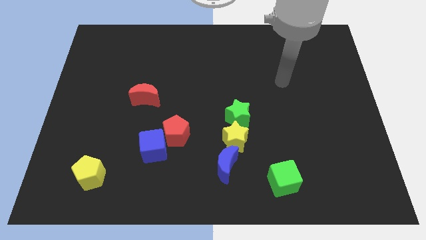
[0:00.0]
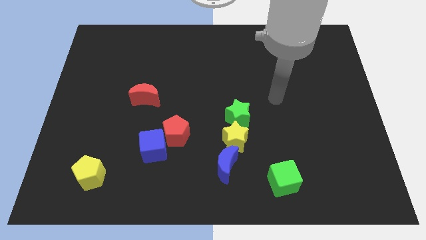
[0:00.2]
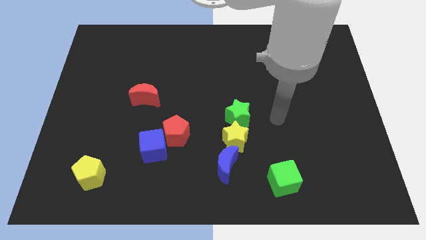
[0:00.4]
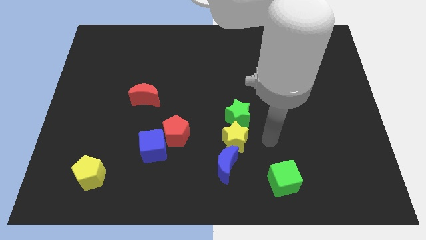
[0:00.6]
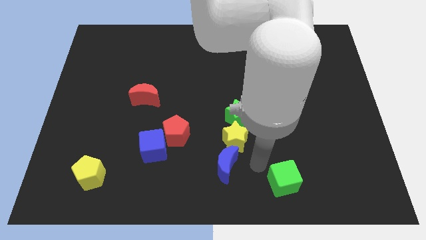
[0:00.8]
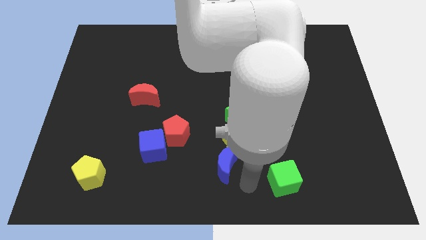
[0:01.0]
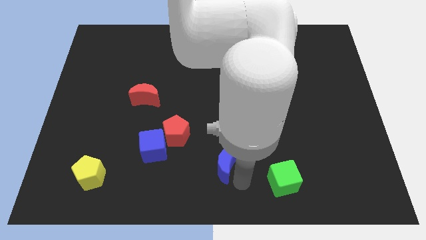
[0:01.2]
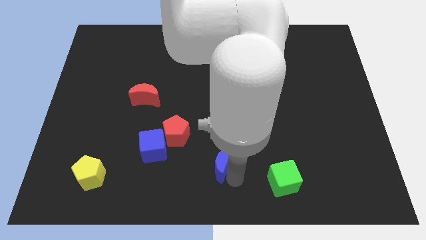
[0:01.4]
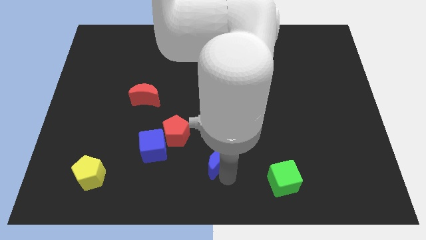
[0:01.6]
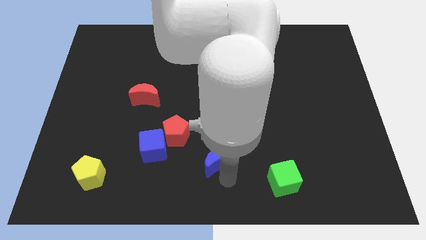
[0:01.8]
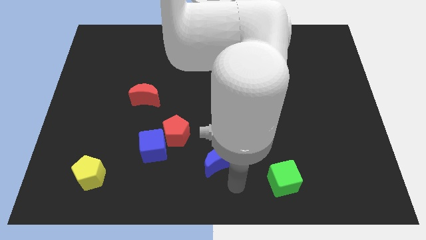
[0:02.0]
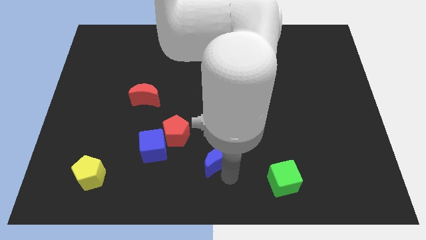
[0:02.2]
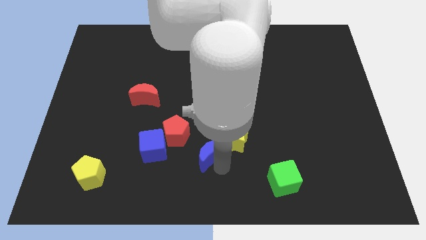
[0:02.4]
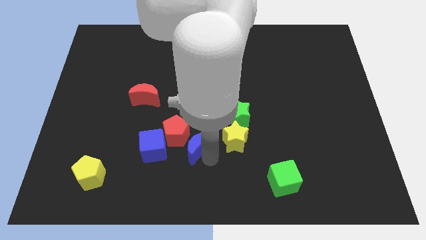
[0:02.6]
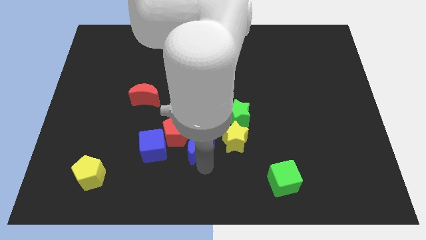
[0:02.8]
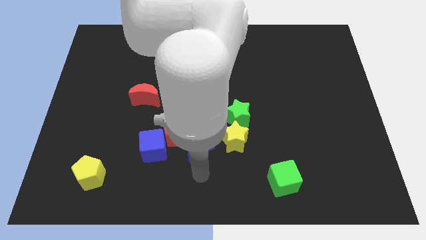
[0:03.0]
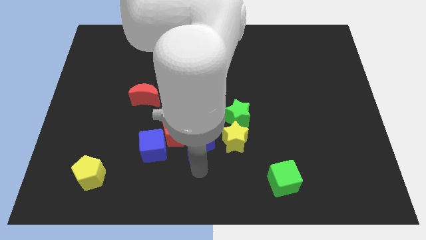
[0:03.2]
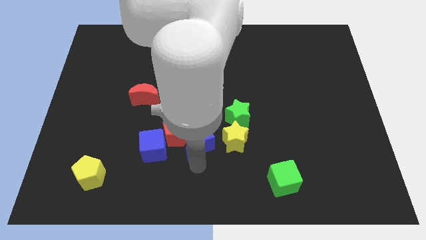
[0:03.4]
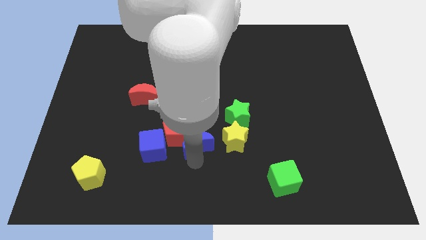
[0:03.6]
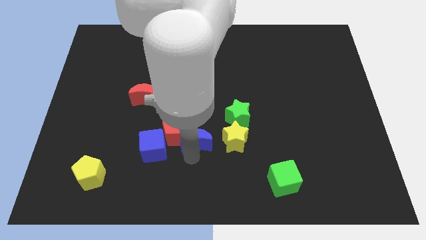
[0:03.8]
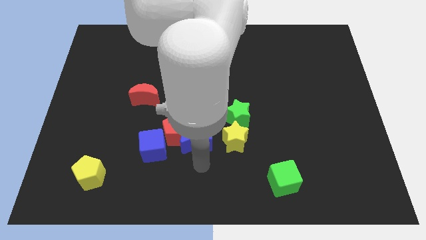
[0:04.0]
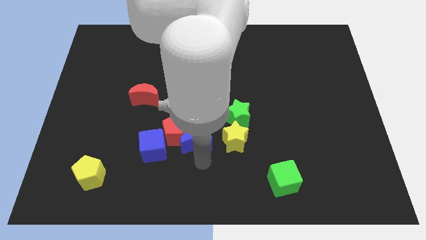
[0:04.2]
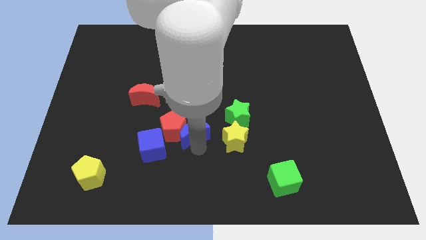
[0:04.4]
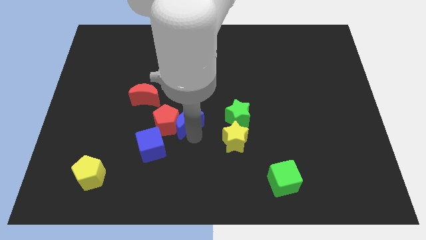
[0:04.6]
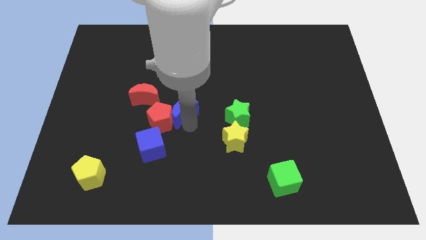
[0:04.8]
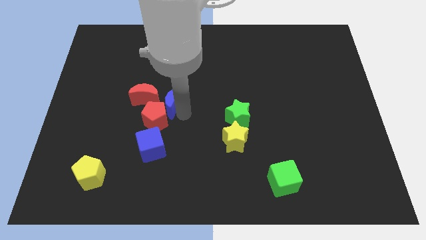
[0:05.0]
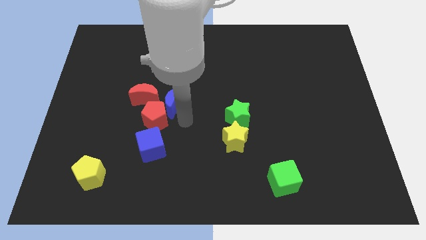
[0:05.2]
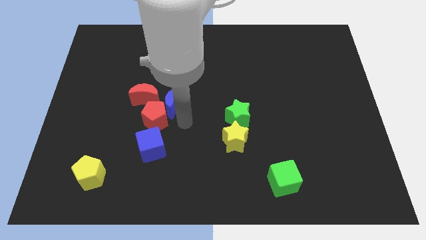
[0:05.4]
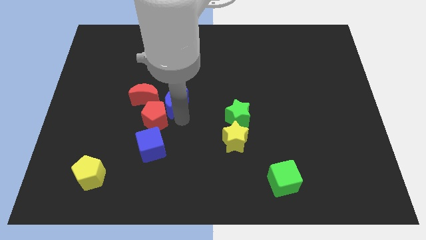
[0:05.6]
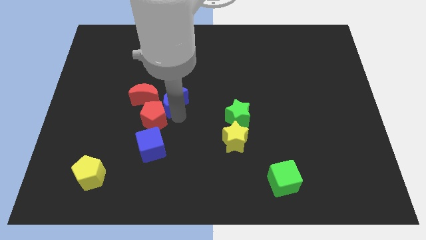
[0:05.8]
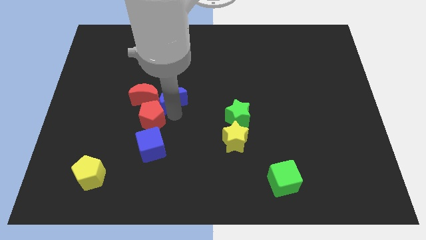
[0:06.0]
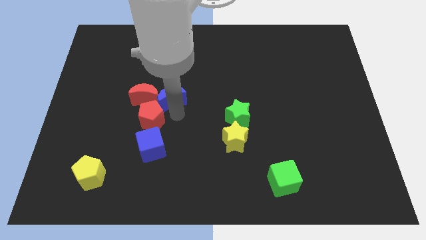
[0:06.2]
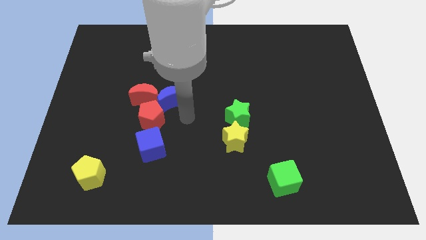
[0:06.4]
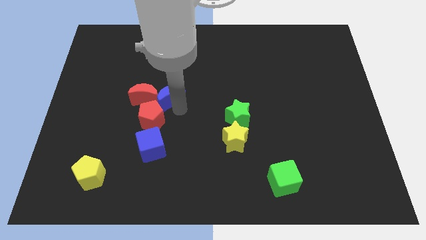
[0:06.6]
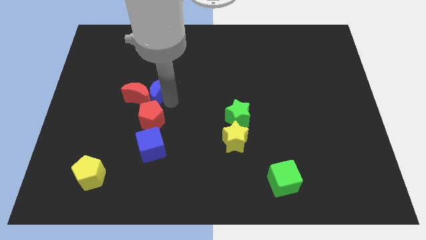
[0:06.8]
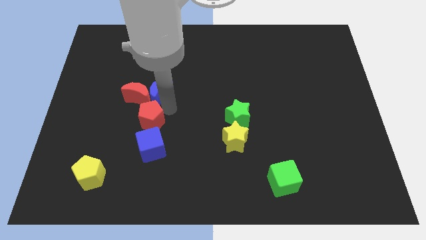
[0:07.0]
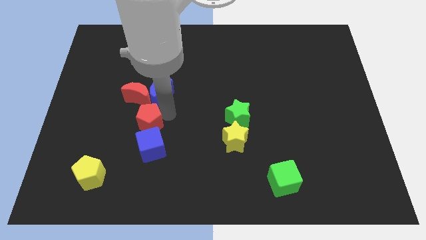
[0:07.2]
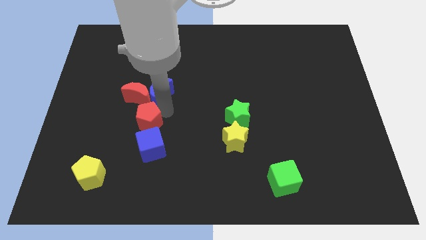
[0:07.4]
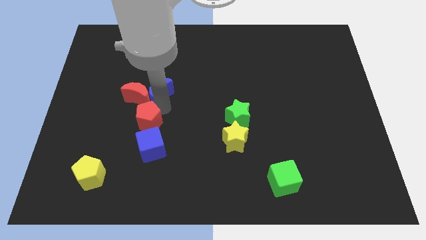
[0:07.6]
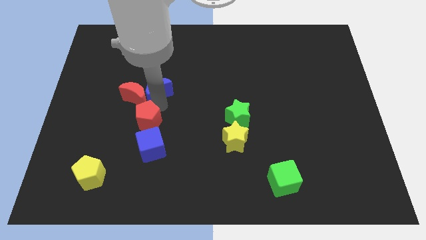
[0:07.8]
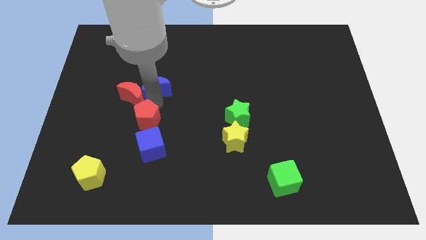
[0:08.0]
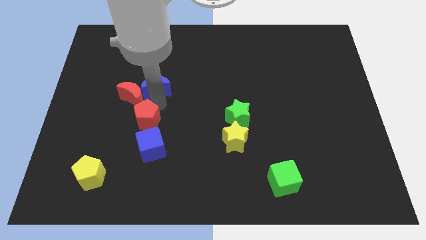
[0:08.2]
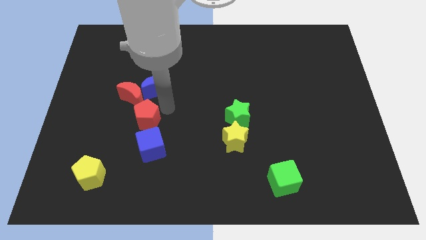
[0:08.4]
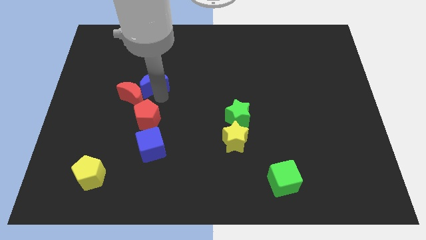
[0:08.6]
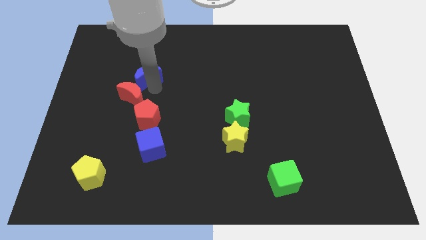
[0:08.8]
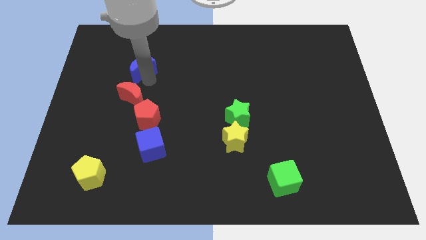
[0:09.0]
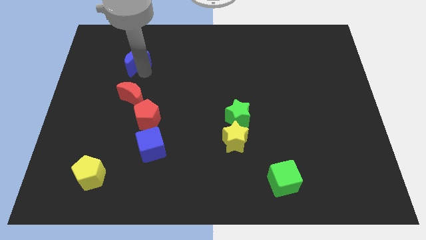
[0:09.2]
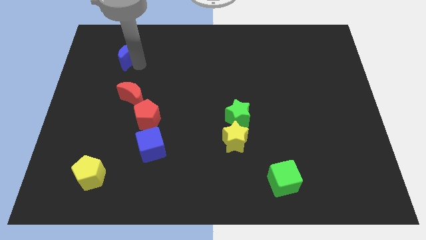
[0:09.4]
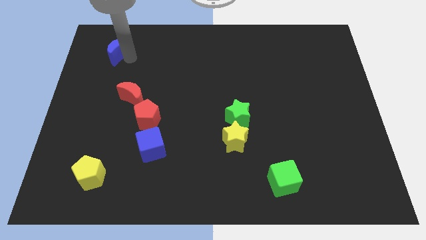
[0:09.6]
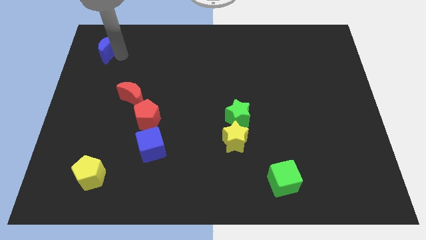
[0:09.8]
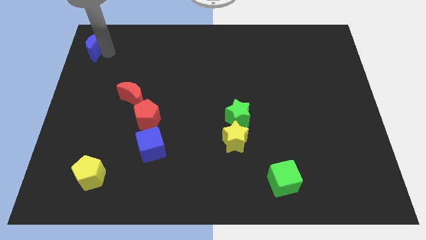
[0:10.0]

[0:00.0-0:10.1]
push the blue moon to the top left of the board
